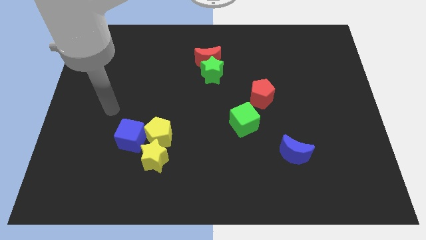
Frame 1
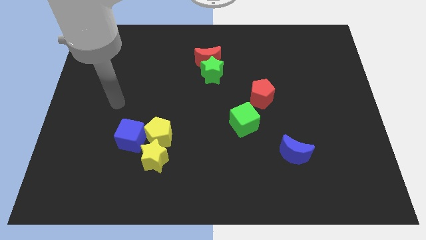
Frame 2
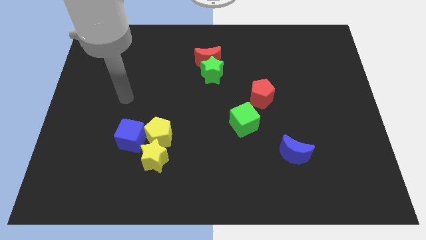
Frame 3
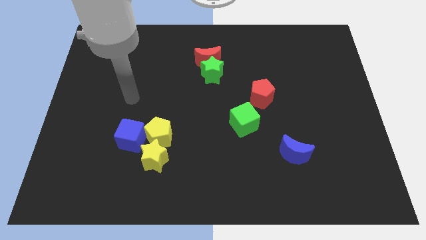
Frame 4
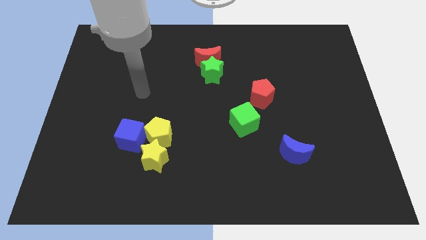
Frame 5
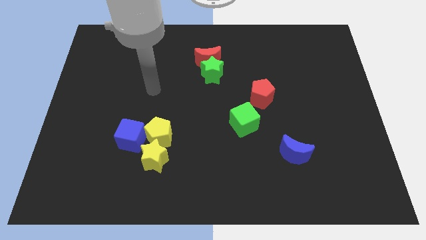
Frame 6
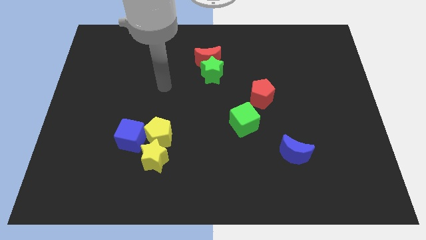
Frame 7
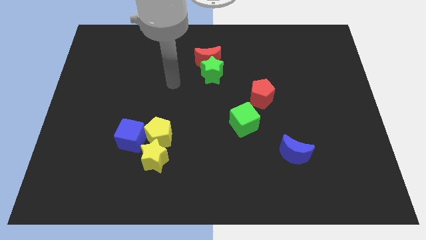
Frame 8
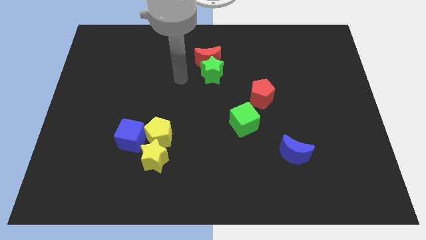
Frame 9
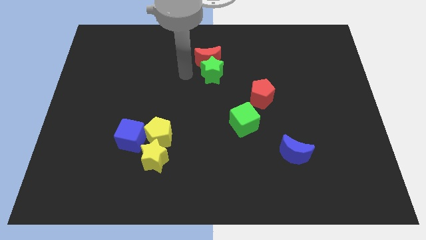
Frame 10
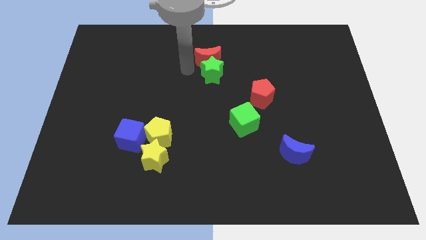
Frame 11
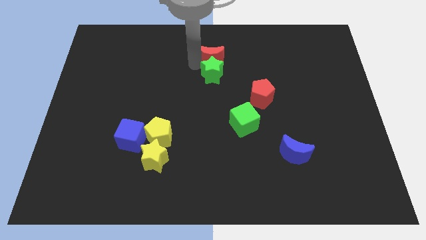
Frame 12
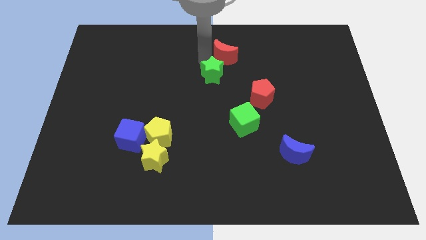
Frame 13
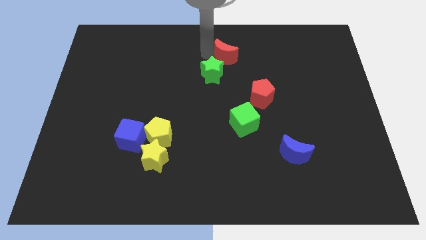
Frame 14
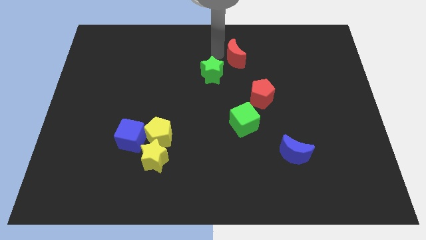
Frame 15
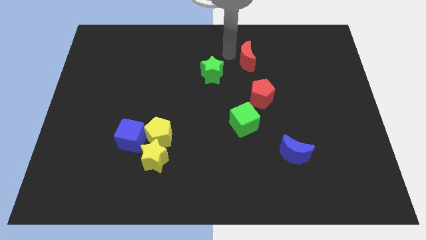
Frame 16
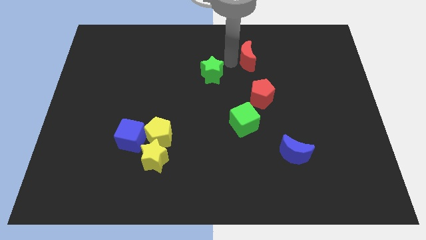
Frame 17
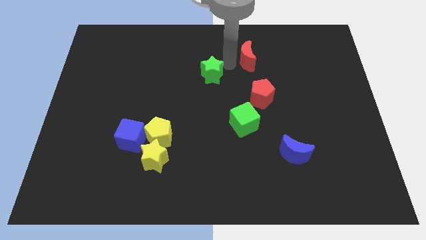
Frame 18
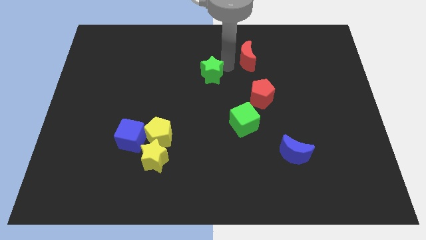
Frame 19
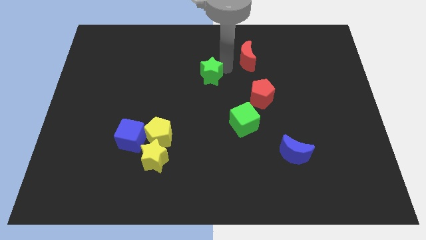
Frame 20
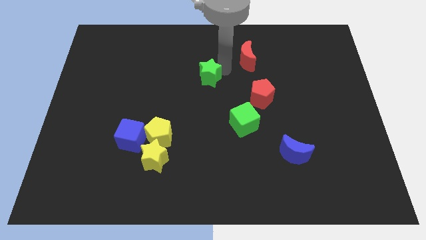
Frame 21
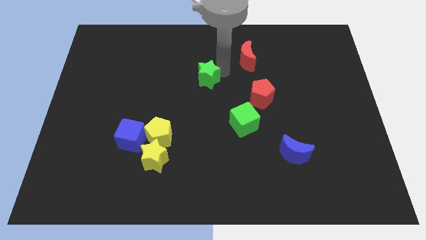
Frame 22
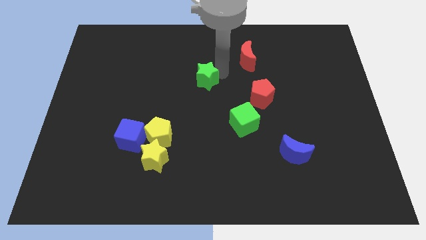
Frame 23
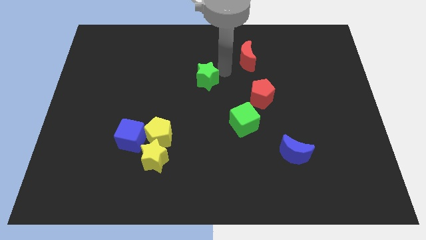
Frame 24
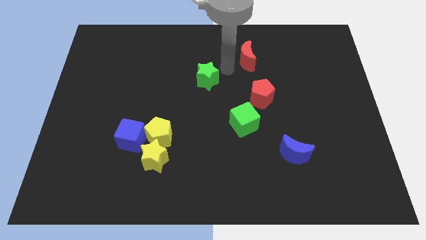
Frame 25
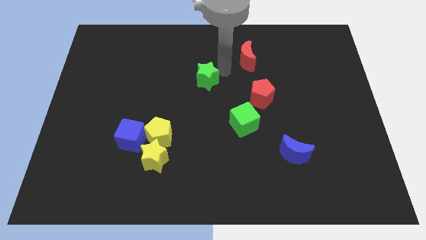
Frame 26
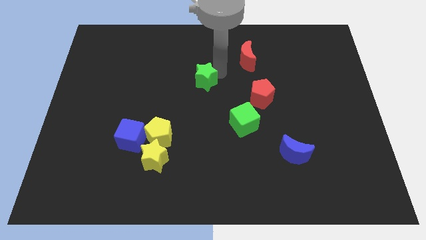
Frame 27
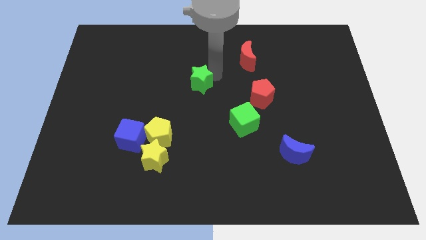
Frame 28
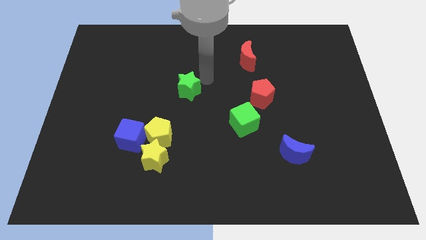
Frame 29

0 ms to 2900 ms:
slide the green star somewhat downwards and to the left diagonally

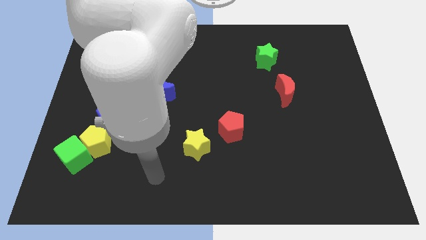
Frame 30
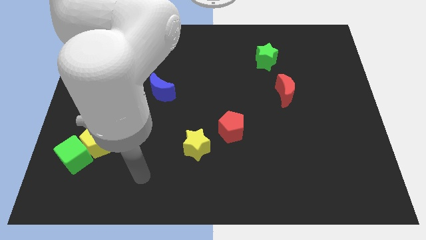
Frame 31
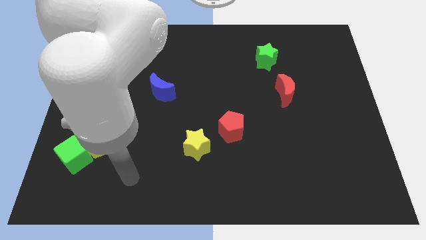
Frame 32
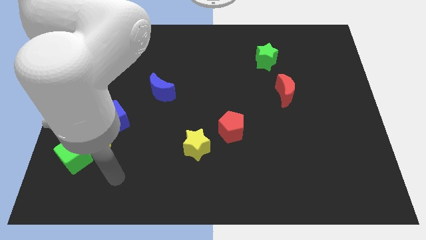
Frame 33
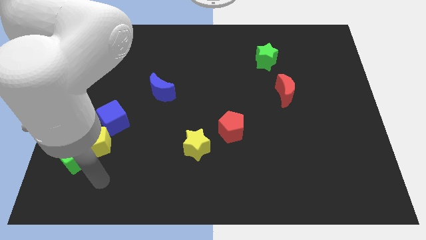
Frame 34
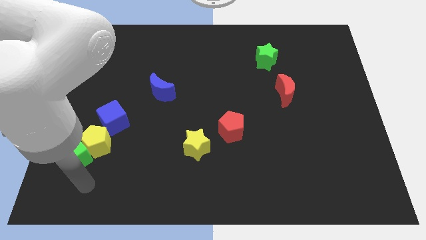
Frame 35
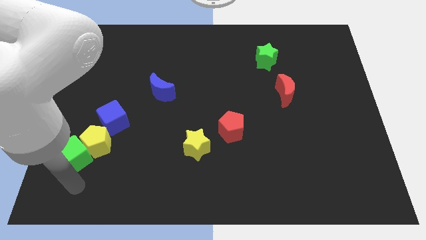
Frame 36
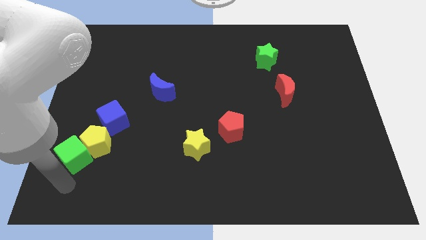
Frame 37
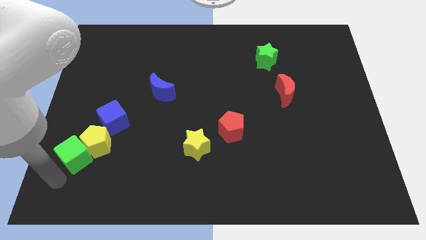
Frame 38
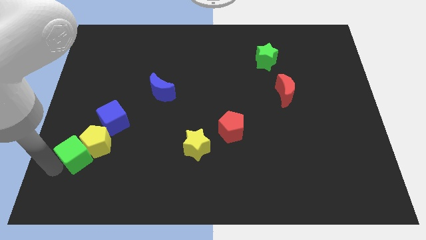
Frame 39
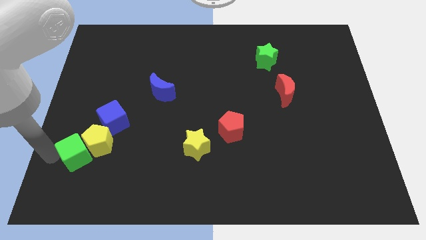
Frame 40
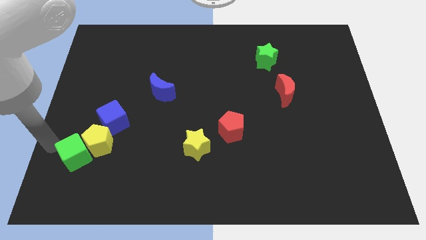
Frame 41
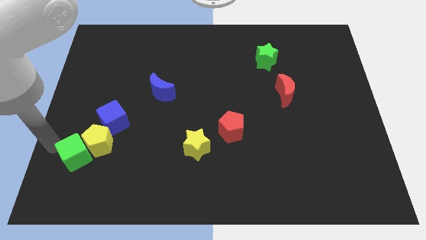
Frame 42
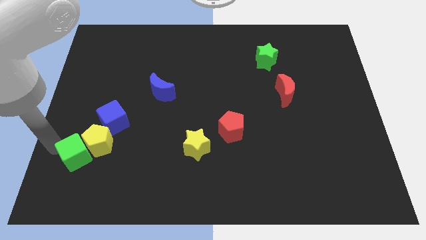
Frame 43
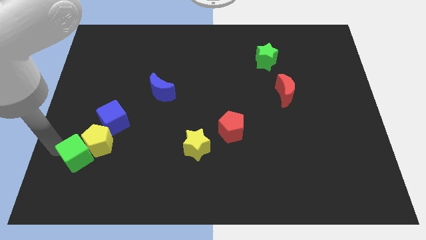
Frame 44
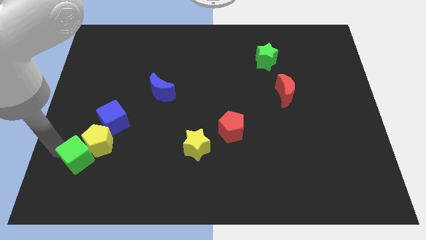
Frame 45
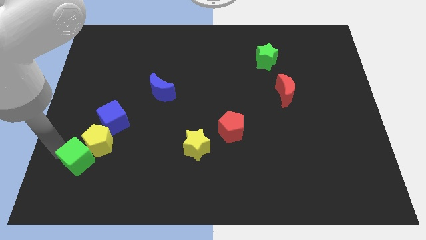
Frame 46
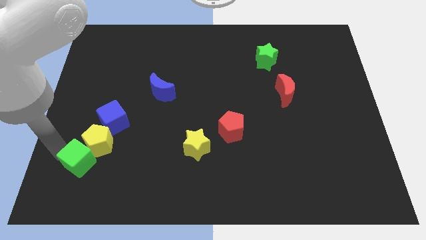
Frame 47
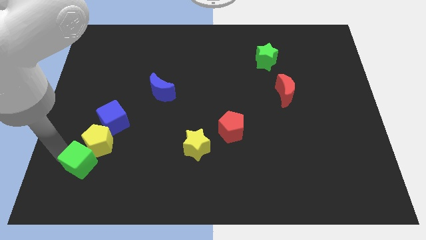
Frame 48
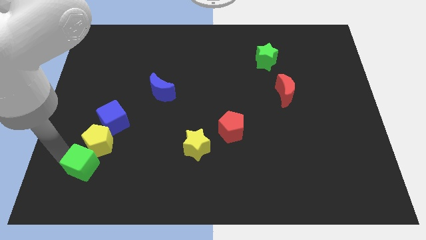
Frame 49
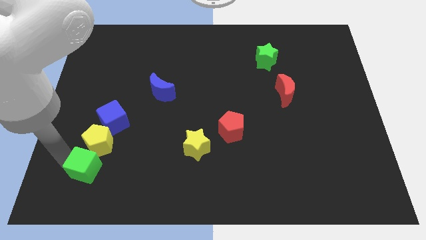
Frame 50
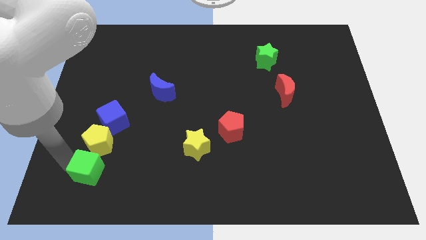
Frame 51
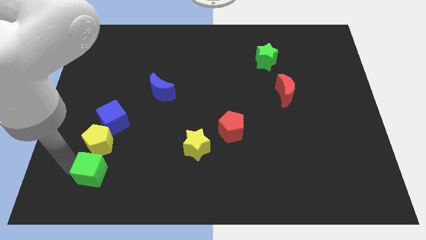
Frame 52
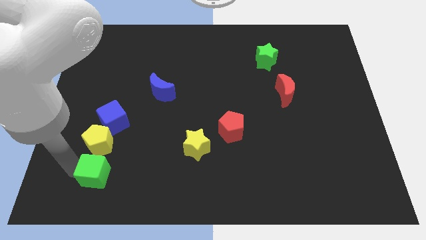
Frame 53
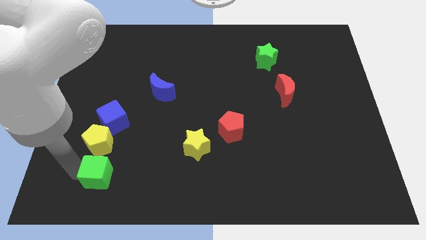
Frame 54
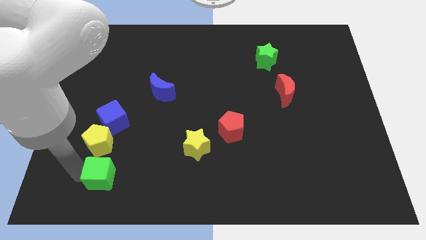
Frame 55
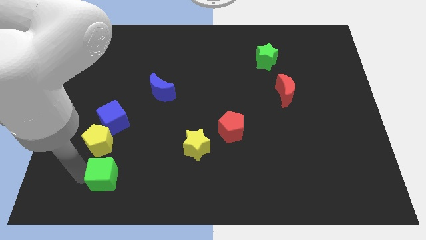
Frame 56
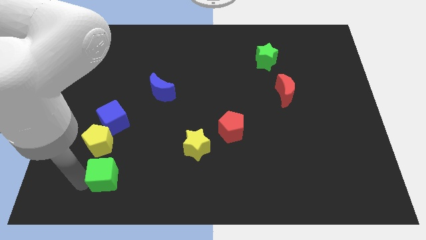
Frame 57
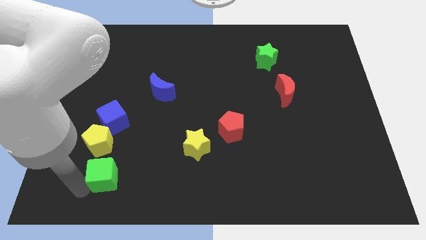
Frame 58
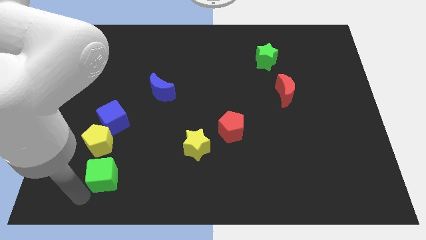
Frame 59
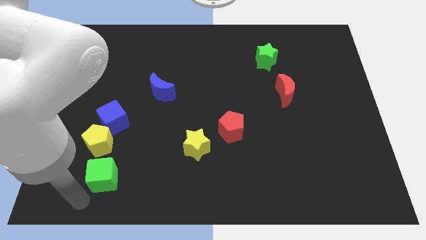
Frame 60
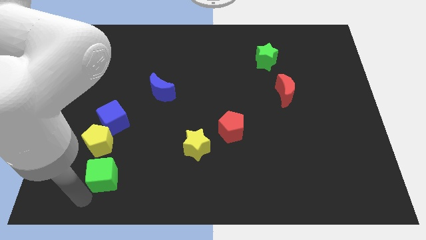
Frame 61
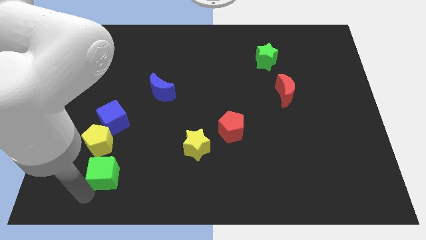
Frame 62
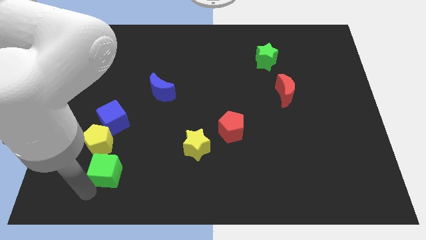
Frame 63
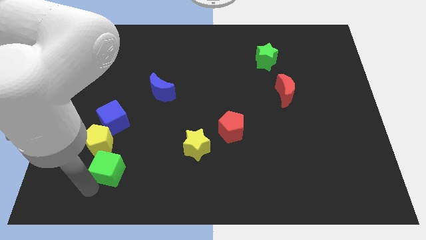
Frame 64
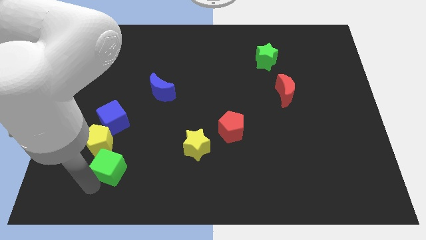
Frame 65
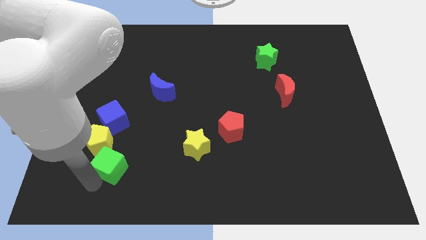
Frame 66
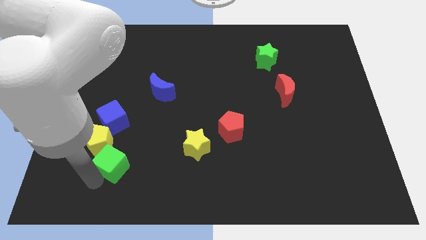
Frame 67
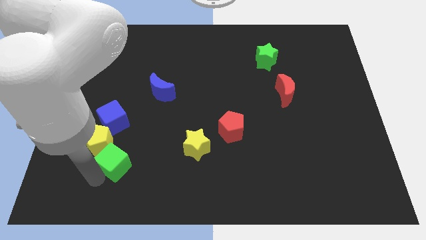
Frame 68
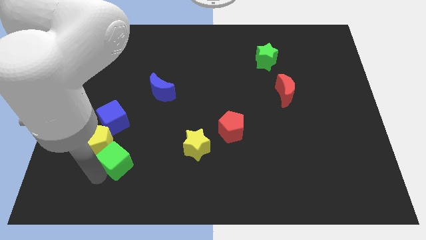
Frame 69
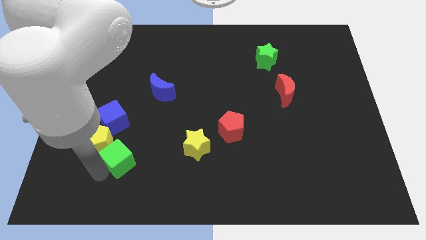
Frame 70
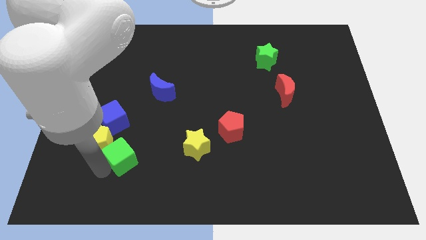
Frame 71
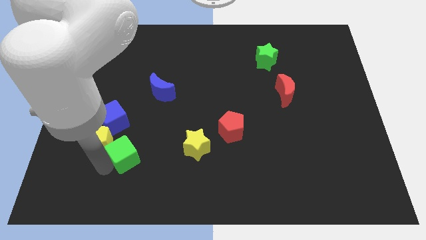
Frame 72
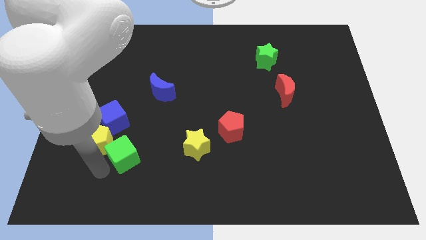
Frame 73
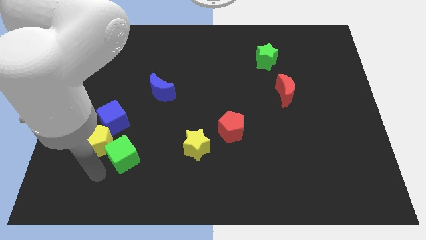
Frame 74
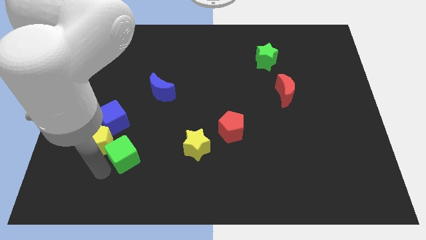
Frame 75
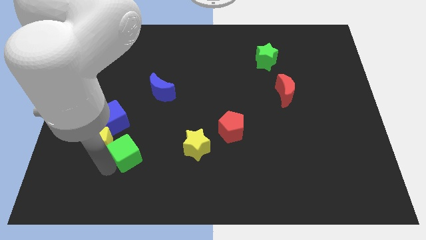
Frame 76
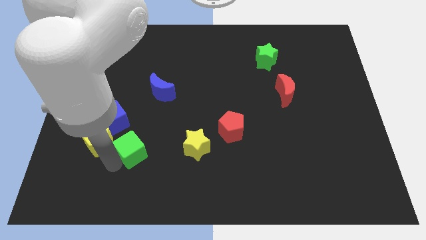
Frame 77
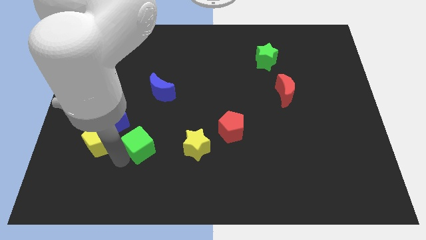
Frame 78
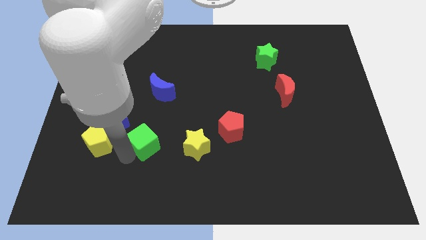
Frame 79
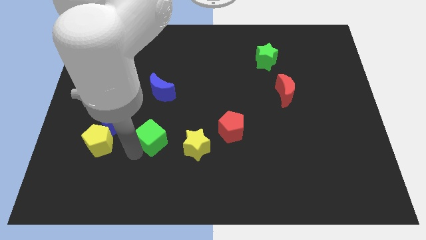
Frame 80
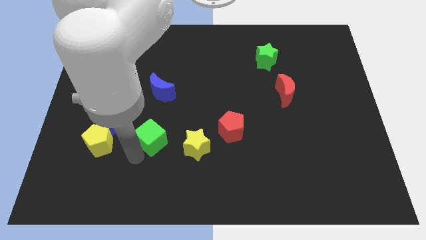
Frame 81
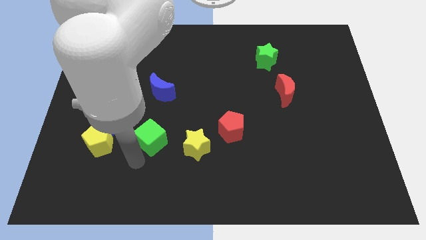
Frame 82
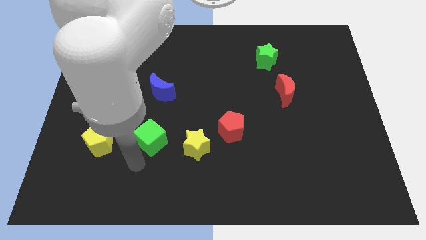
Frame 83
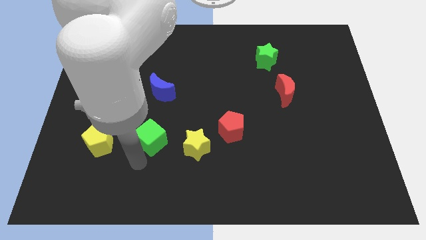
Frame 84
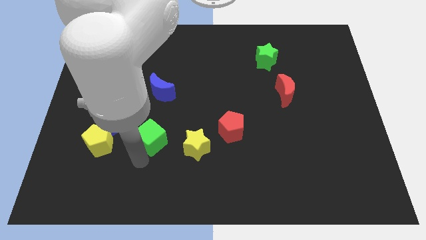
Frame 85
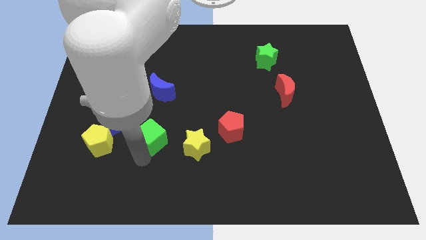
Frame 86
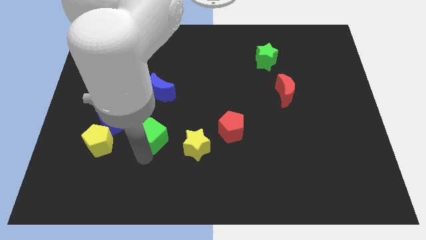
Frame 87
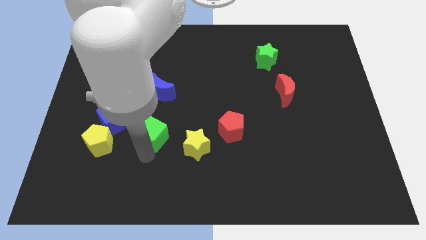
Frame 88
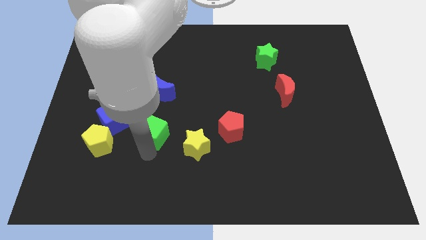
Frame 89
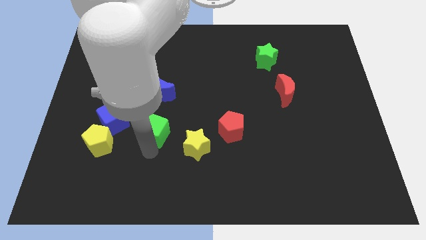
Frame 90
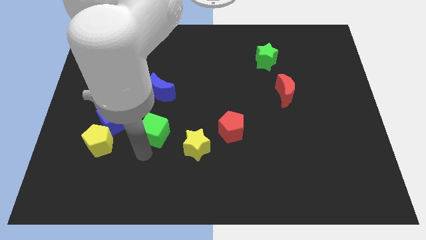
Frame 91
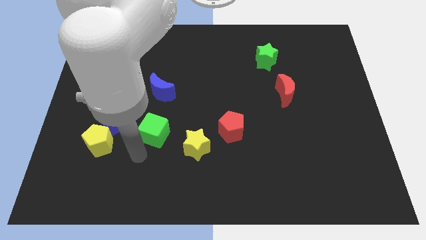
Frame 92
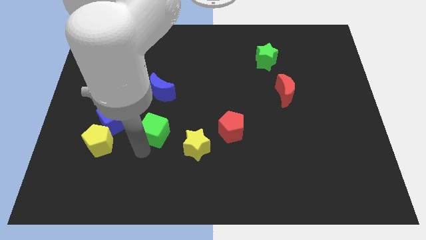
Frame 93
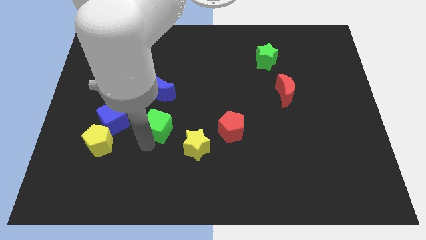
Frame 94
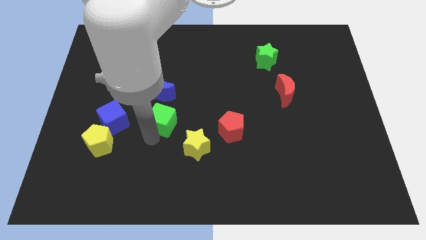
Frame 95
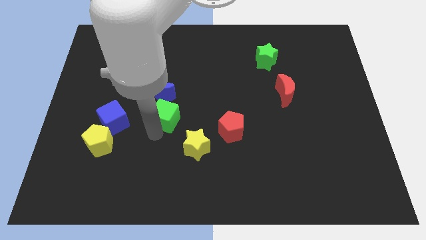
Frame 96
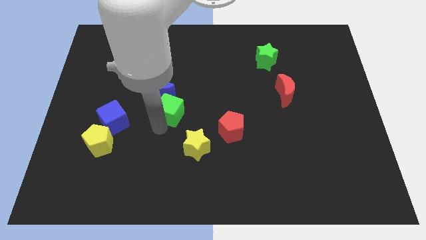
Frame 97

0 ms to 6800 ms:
slide the green cube up and then right
